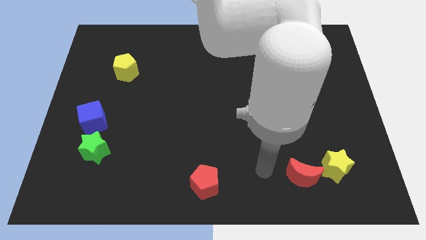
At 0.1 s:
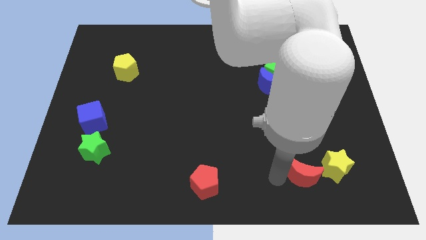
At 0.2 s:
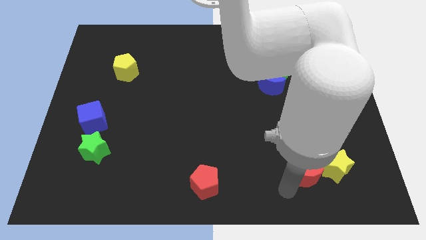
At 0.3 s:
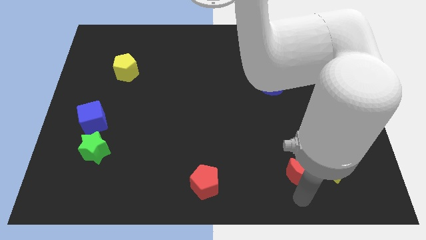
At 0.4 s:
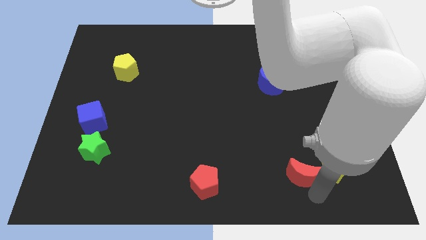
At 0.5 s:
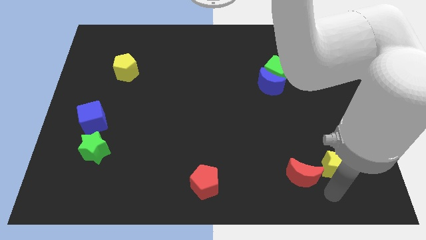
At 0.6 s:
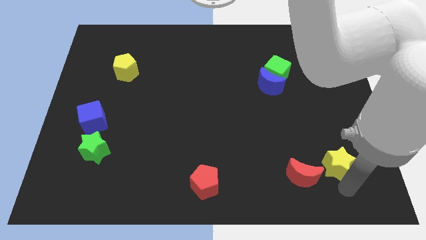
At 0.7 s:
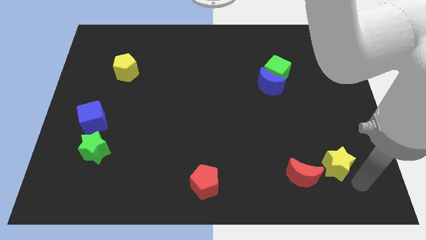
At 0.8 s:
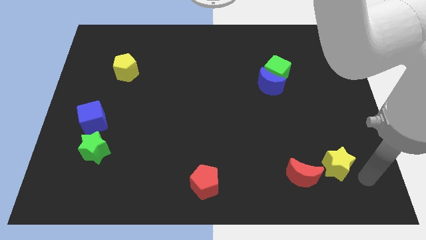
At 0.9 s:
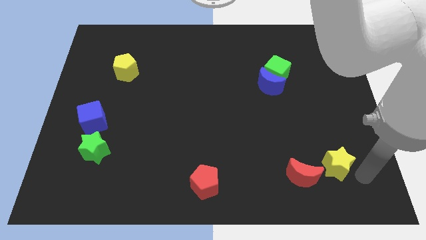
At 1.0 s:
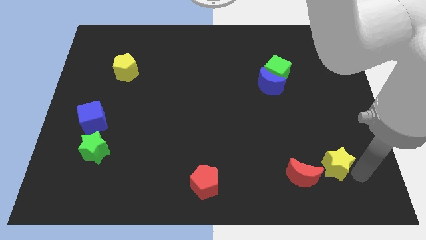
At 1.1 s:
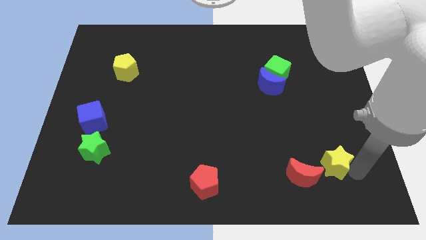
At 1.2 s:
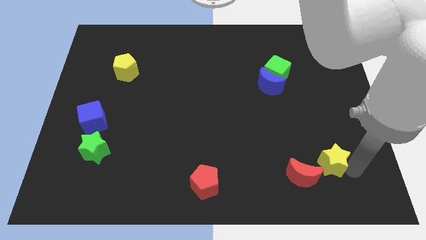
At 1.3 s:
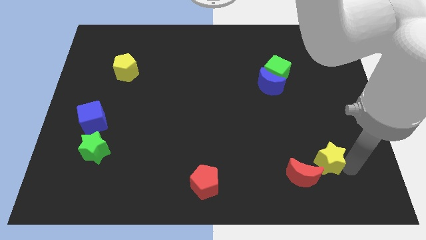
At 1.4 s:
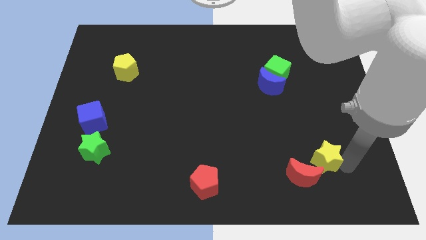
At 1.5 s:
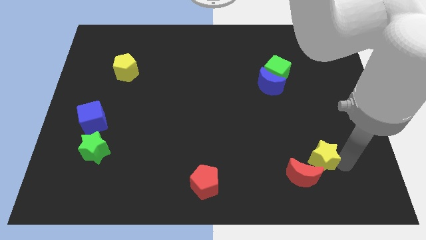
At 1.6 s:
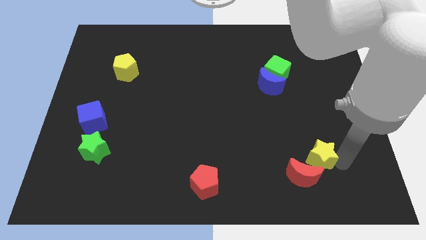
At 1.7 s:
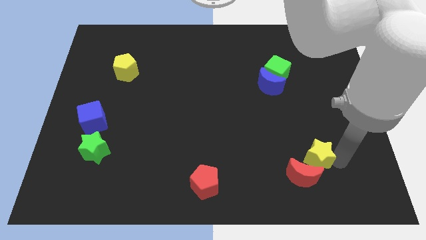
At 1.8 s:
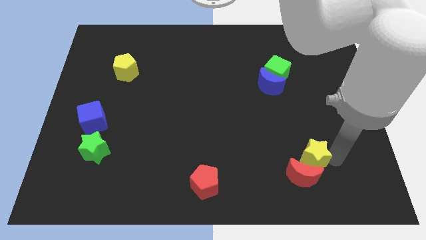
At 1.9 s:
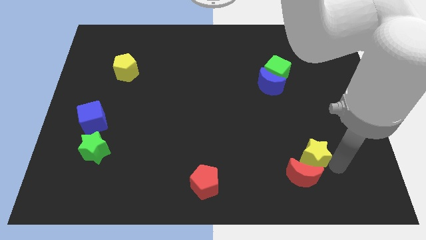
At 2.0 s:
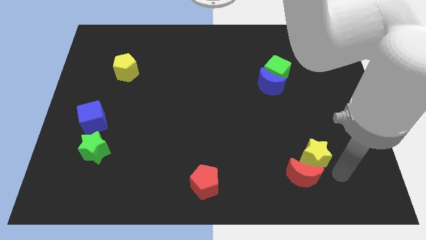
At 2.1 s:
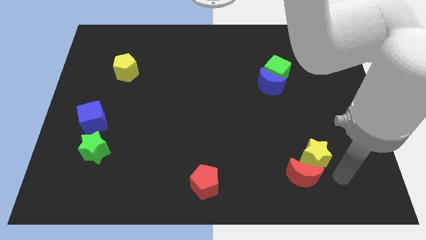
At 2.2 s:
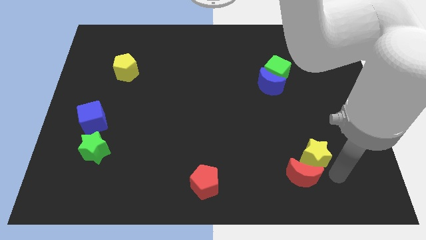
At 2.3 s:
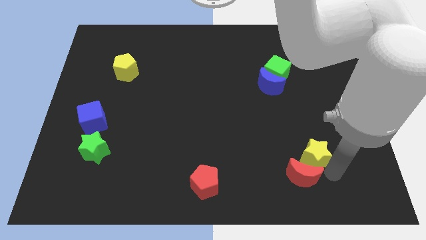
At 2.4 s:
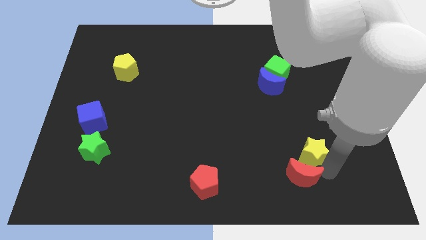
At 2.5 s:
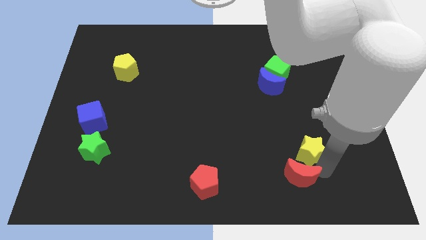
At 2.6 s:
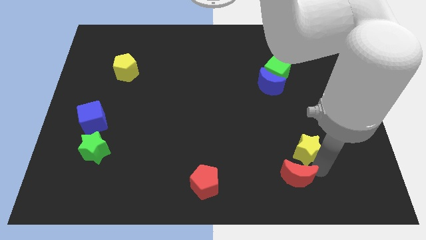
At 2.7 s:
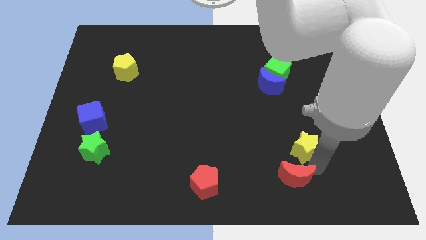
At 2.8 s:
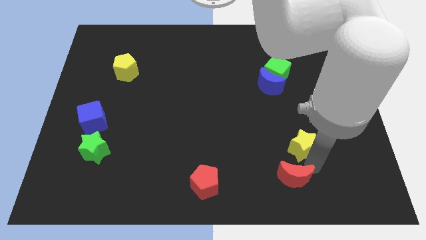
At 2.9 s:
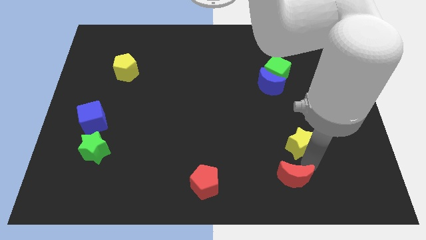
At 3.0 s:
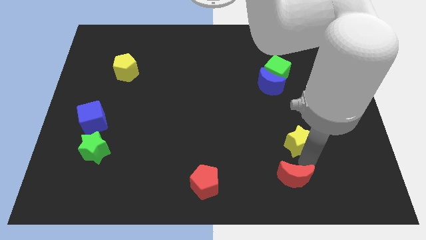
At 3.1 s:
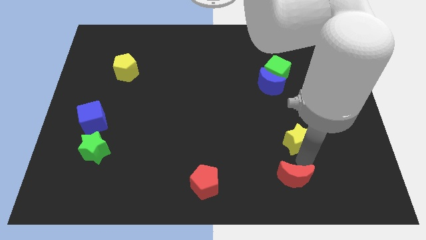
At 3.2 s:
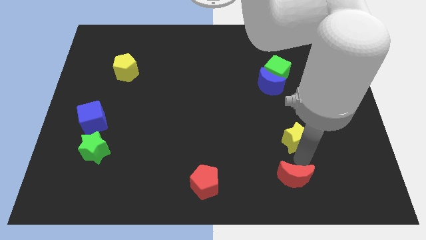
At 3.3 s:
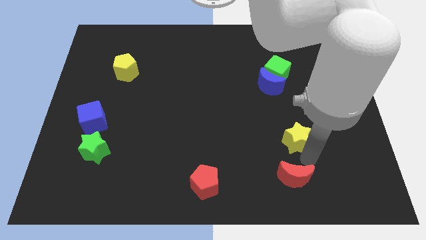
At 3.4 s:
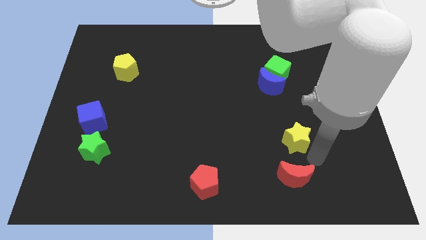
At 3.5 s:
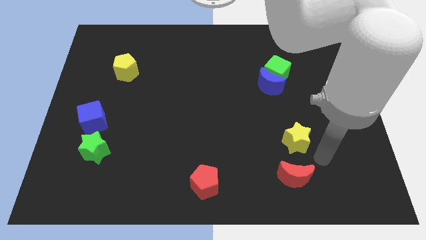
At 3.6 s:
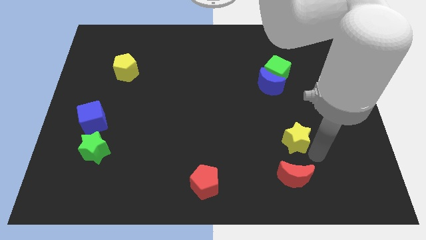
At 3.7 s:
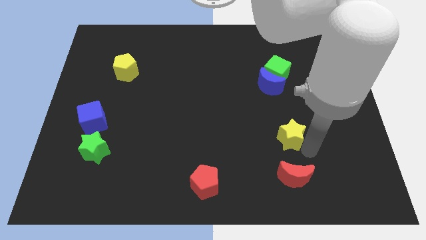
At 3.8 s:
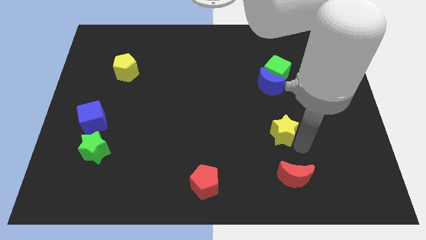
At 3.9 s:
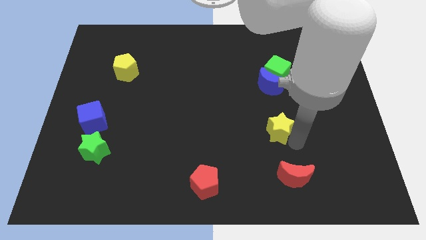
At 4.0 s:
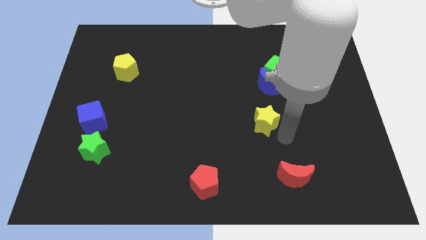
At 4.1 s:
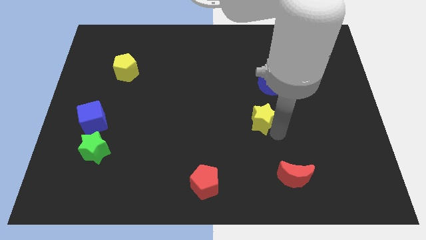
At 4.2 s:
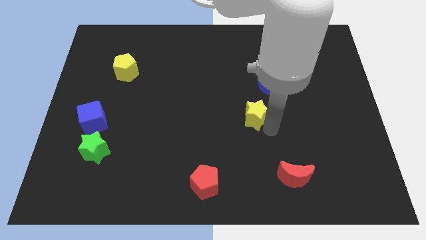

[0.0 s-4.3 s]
push the yellow star upwards and then left

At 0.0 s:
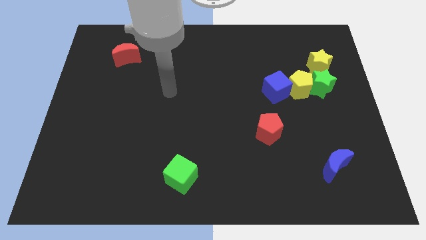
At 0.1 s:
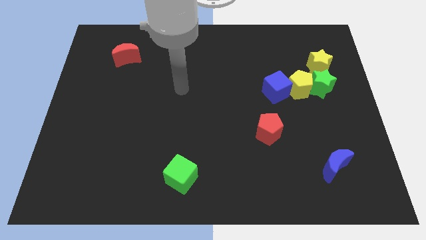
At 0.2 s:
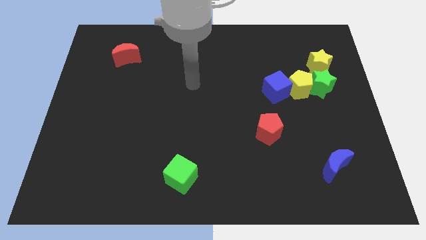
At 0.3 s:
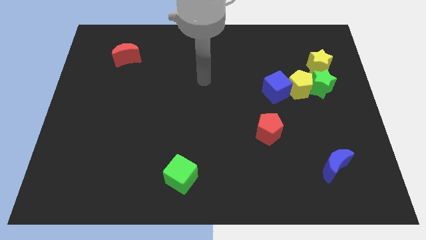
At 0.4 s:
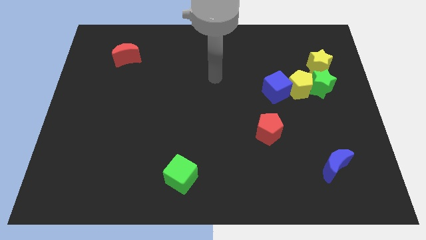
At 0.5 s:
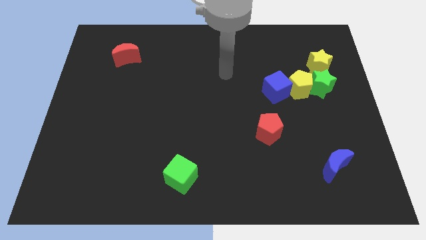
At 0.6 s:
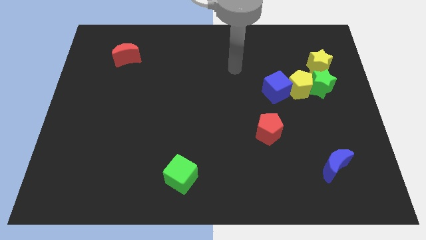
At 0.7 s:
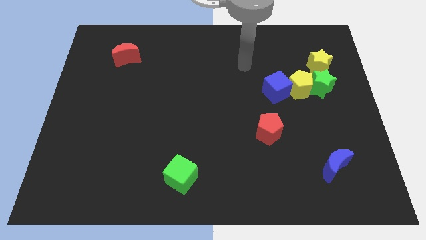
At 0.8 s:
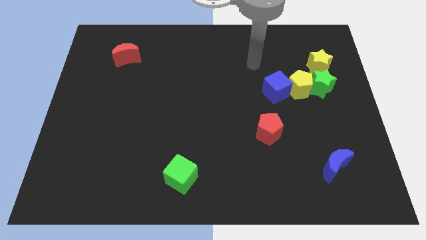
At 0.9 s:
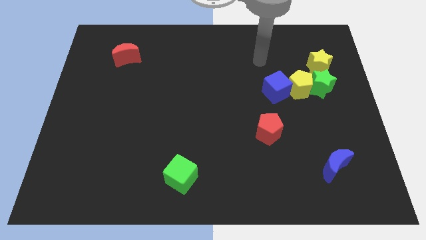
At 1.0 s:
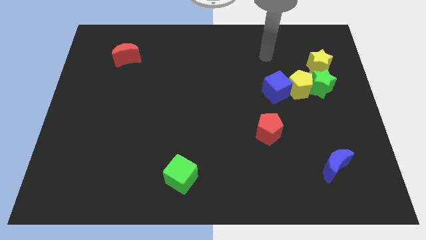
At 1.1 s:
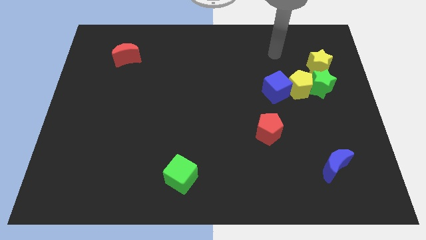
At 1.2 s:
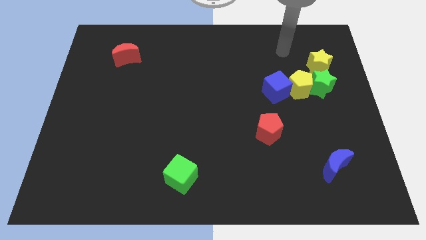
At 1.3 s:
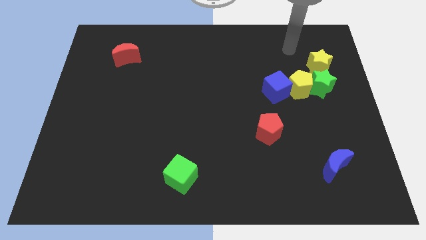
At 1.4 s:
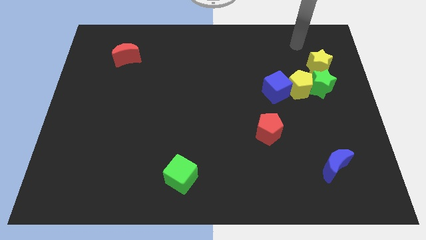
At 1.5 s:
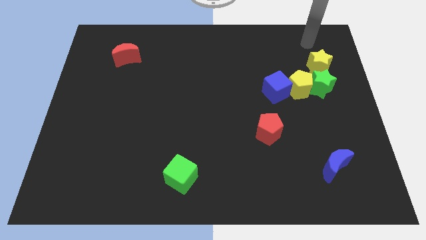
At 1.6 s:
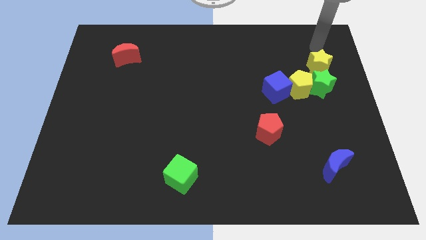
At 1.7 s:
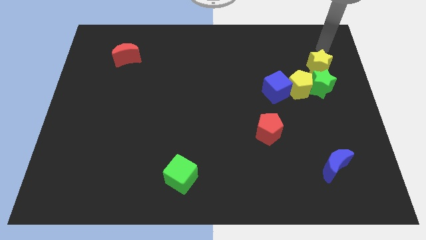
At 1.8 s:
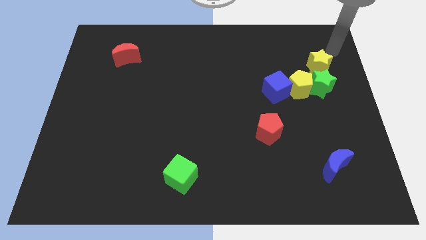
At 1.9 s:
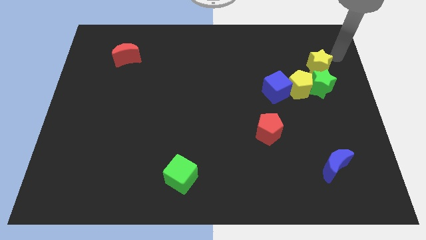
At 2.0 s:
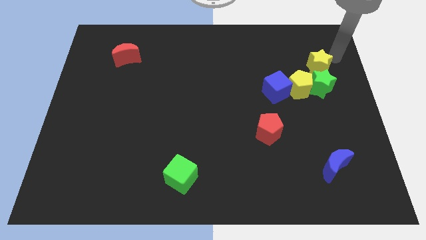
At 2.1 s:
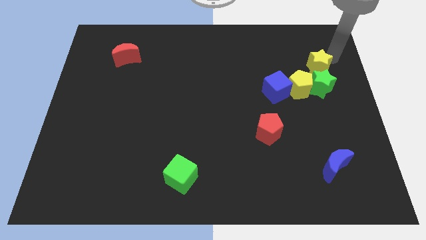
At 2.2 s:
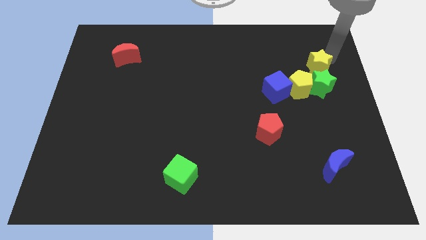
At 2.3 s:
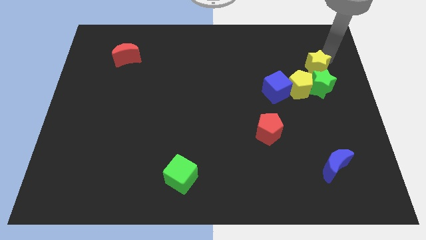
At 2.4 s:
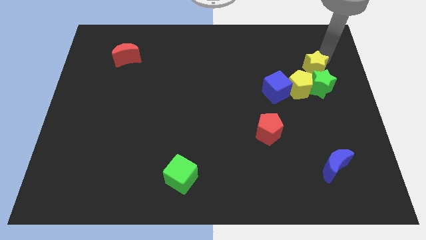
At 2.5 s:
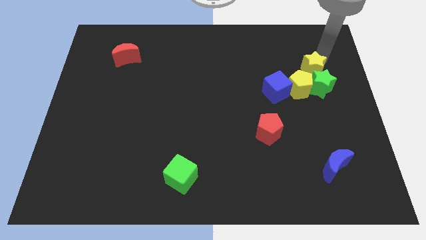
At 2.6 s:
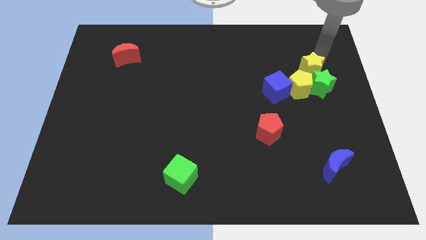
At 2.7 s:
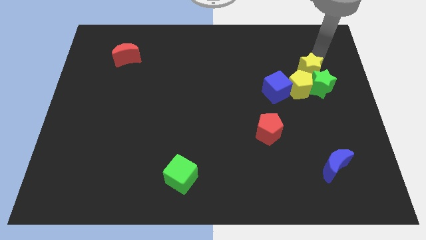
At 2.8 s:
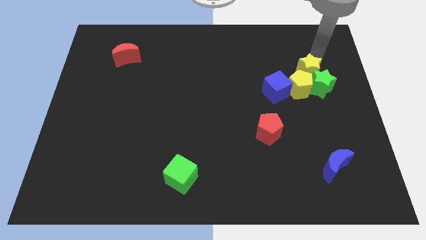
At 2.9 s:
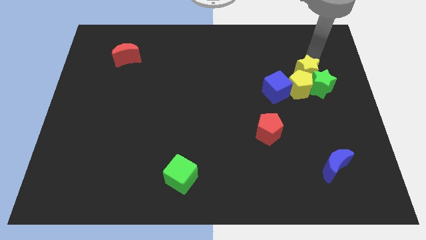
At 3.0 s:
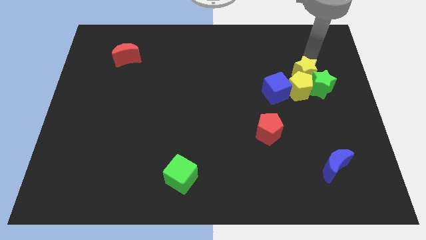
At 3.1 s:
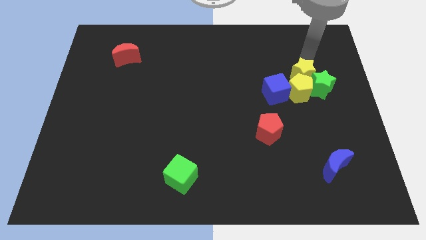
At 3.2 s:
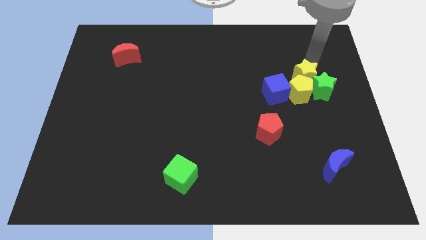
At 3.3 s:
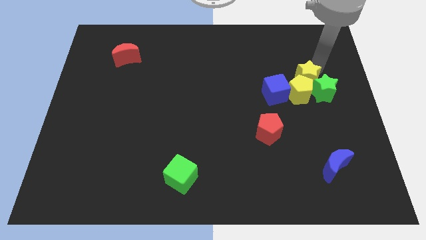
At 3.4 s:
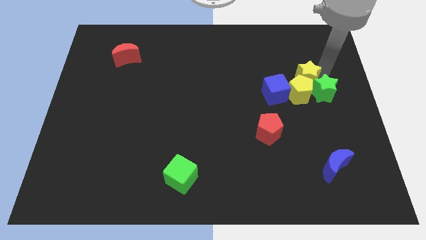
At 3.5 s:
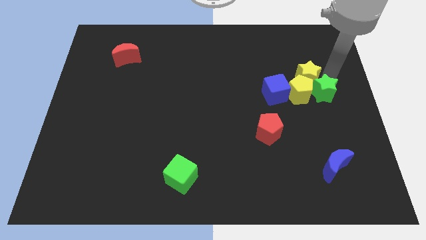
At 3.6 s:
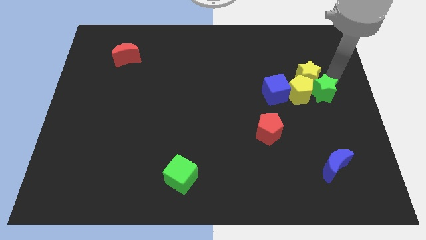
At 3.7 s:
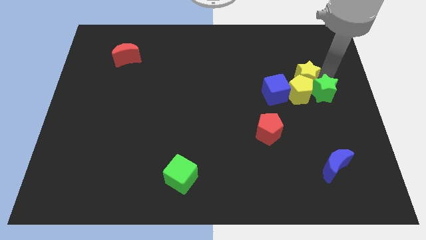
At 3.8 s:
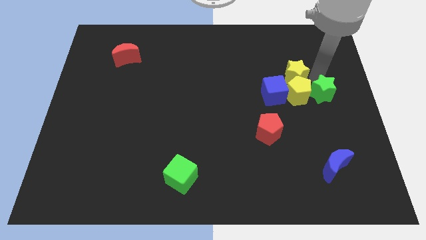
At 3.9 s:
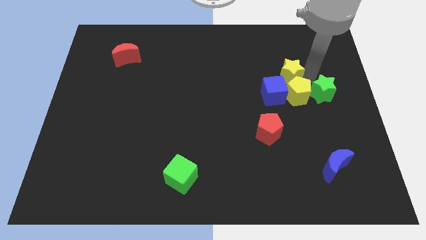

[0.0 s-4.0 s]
move the yellow star slightly left
